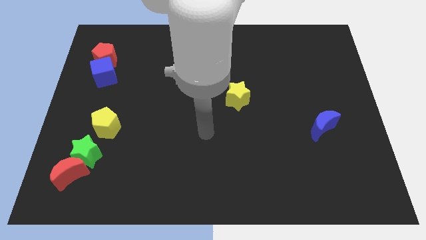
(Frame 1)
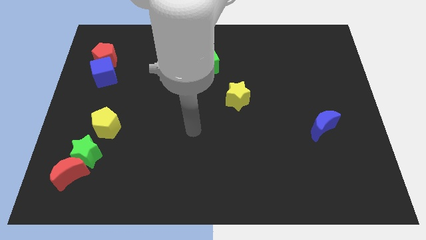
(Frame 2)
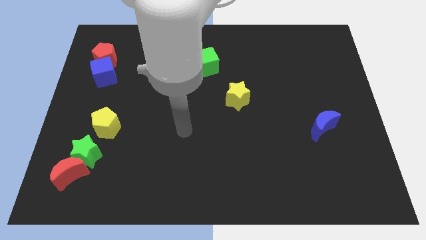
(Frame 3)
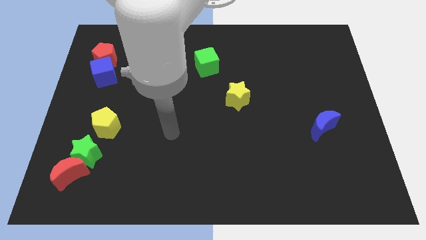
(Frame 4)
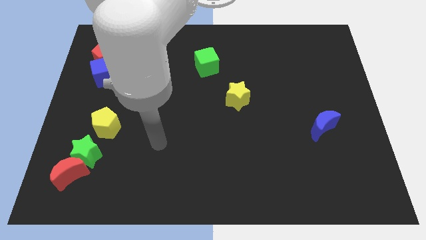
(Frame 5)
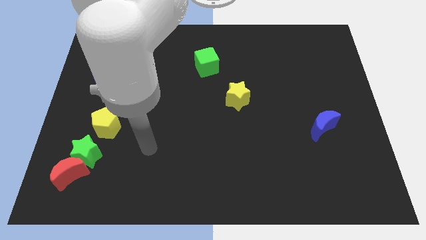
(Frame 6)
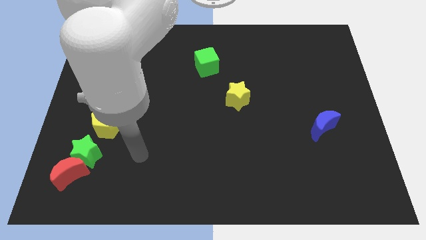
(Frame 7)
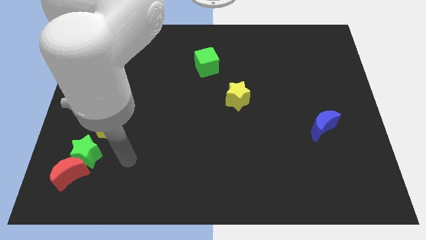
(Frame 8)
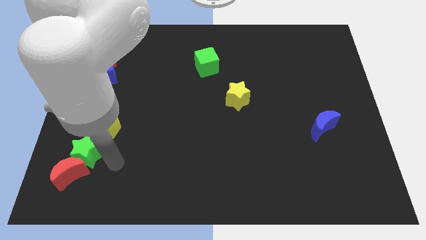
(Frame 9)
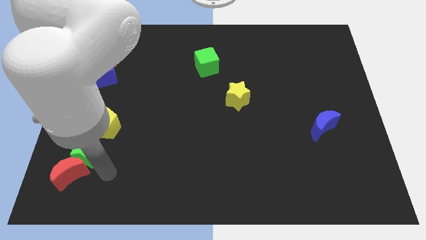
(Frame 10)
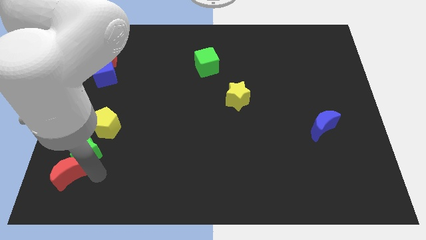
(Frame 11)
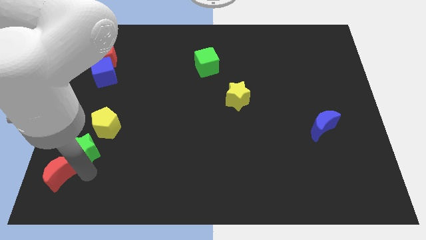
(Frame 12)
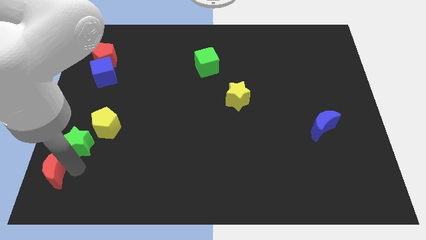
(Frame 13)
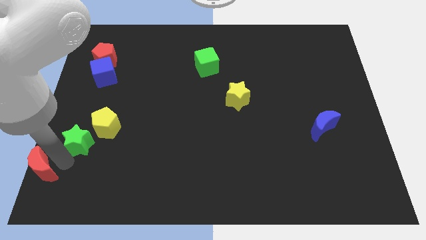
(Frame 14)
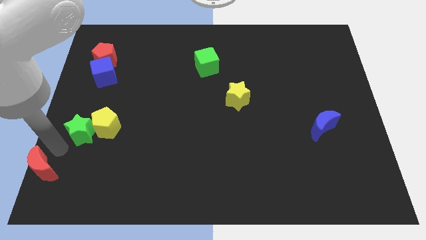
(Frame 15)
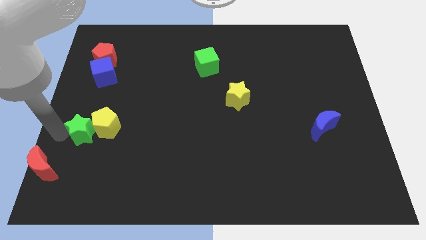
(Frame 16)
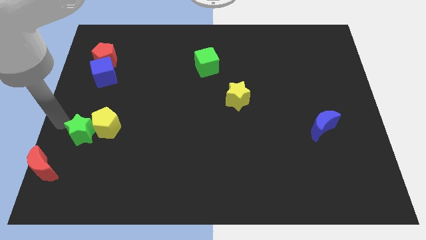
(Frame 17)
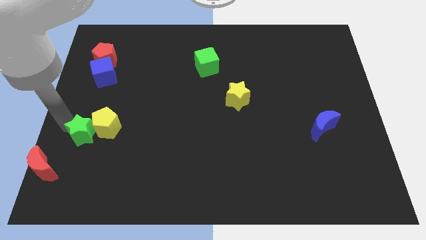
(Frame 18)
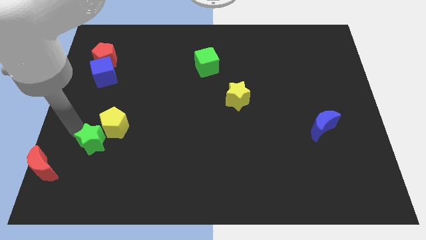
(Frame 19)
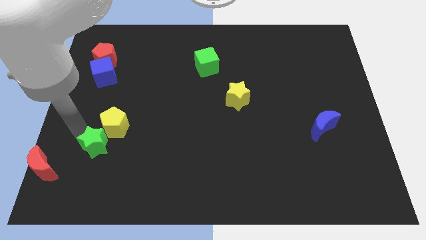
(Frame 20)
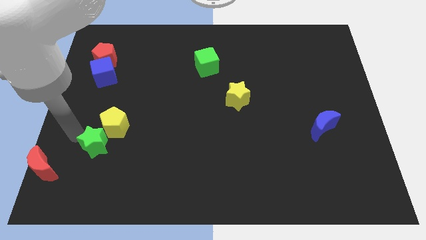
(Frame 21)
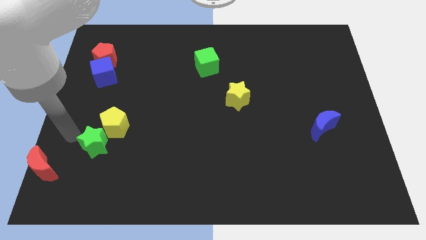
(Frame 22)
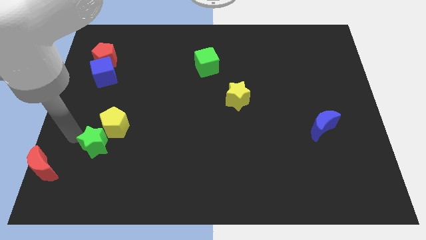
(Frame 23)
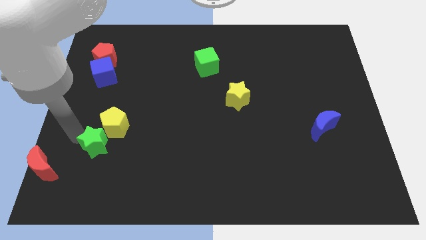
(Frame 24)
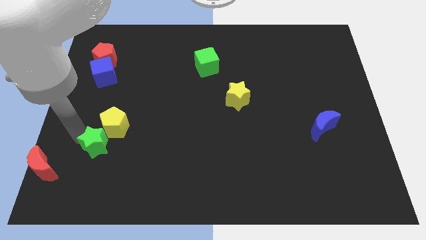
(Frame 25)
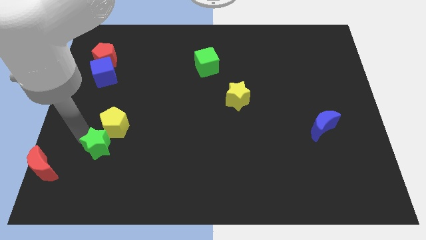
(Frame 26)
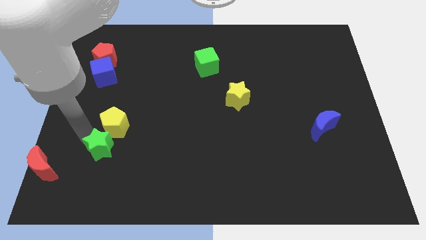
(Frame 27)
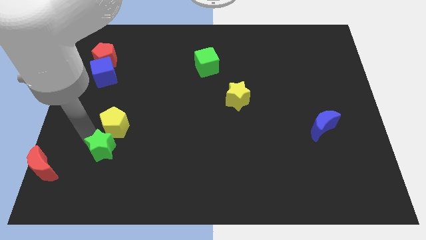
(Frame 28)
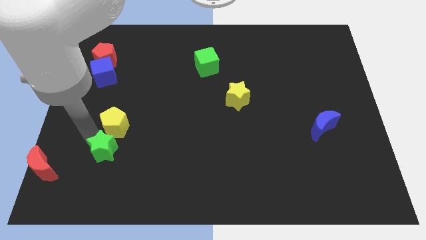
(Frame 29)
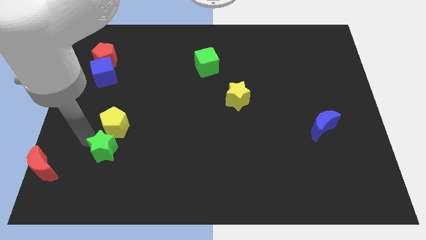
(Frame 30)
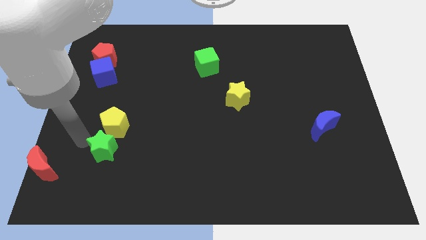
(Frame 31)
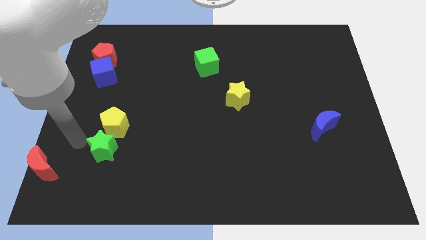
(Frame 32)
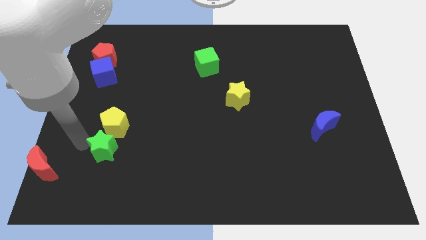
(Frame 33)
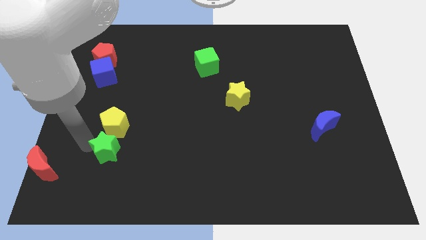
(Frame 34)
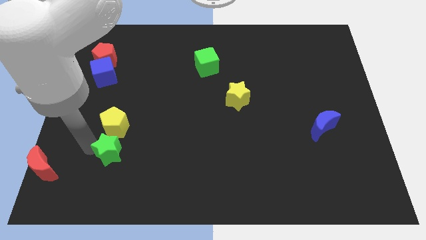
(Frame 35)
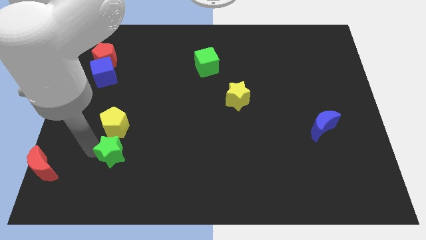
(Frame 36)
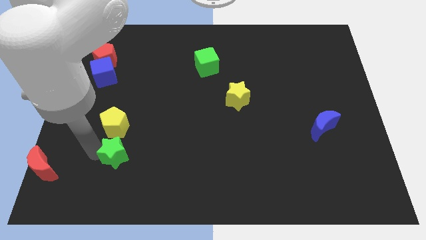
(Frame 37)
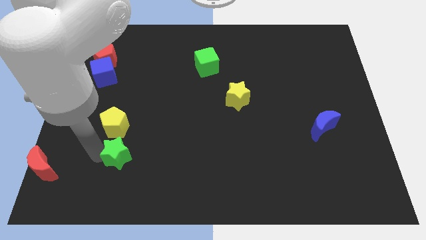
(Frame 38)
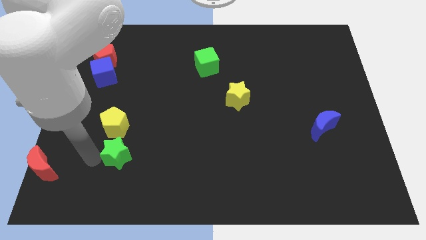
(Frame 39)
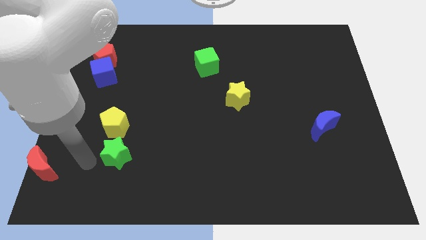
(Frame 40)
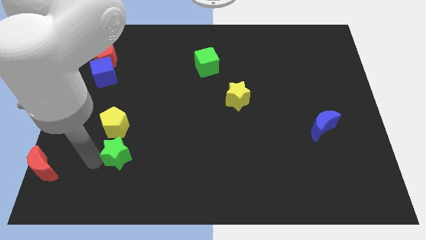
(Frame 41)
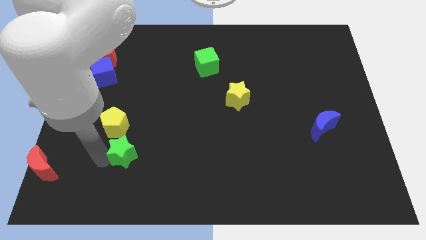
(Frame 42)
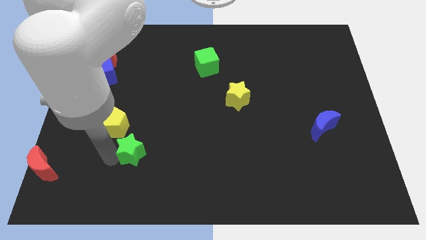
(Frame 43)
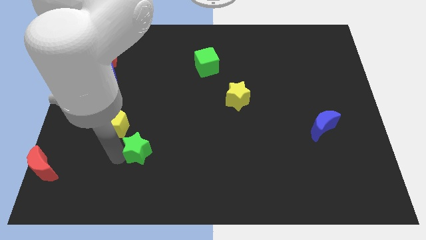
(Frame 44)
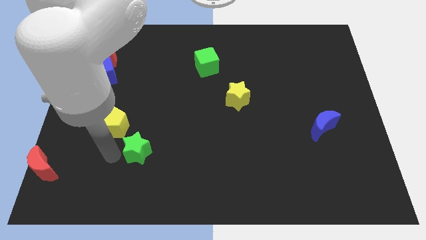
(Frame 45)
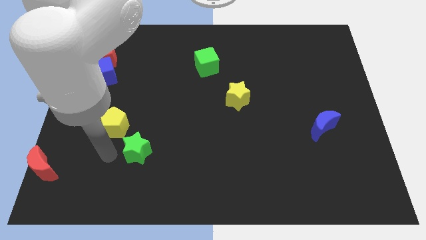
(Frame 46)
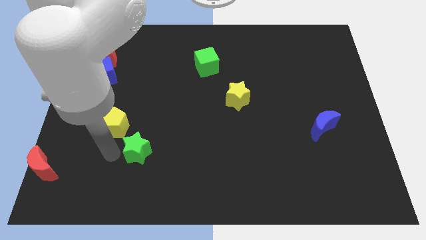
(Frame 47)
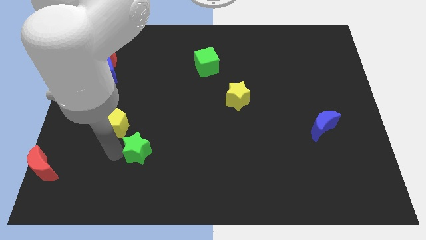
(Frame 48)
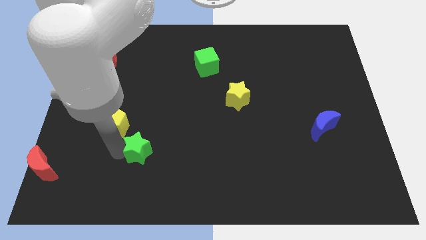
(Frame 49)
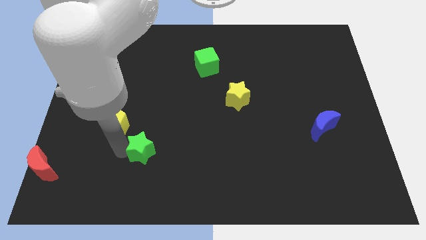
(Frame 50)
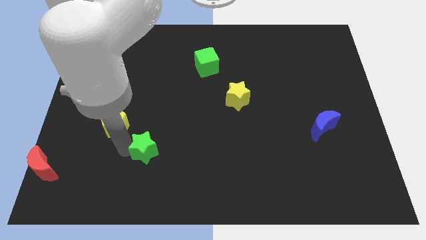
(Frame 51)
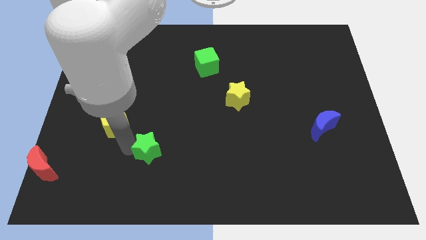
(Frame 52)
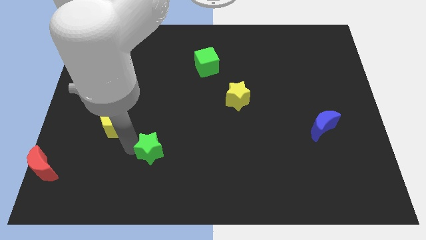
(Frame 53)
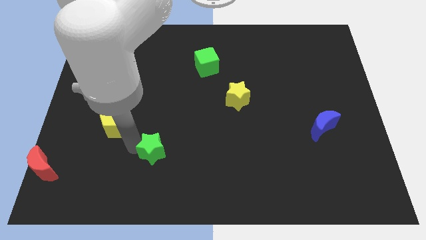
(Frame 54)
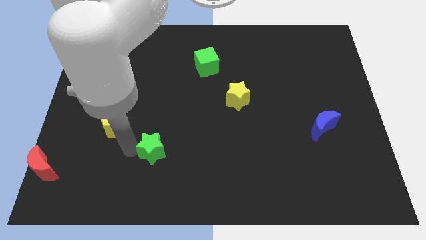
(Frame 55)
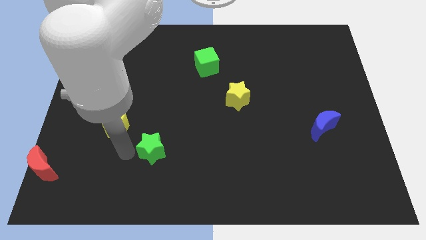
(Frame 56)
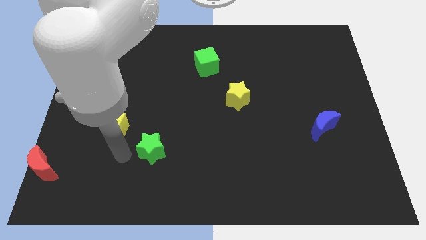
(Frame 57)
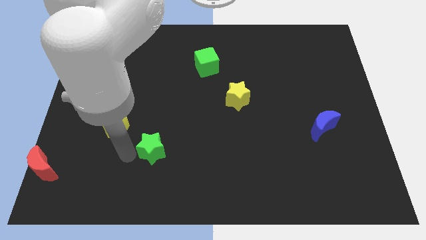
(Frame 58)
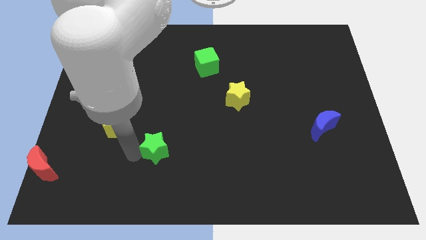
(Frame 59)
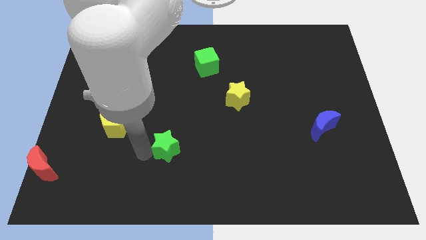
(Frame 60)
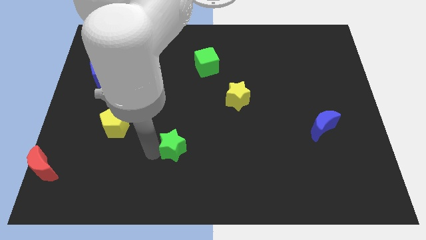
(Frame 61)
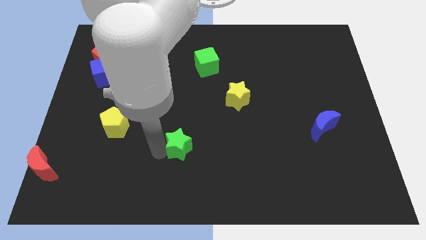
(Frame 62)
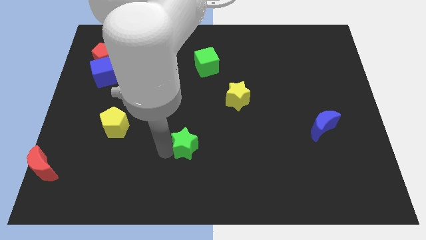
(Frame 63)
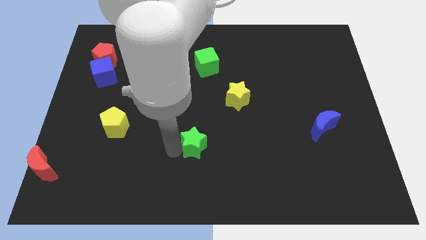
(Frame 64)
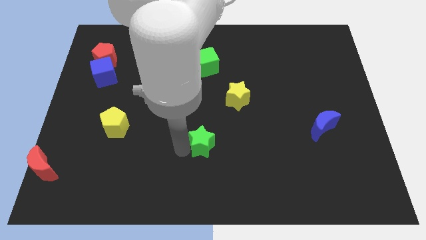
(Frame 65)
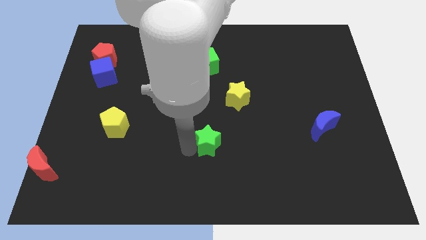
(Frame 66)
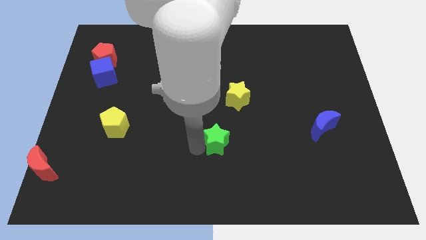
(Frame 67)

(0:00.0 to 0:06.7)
push the green star to the bottom of the yellow star

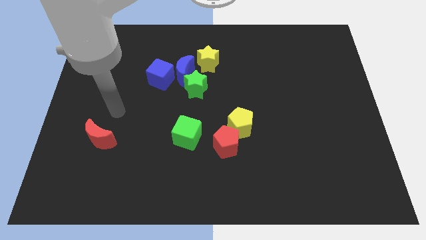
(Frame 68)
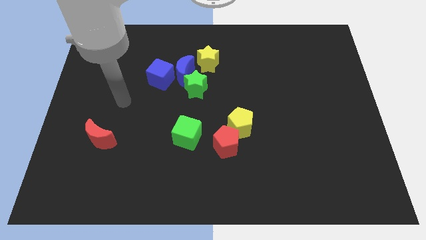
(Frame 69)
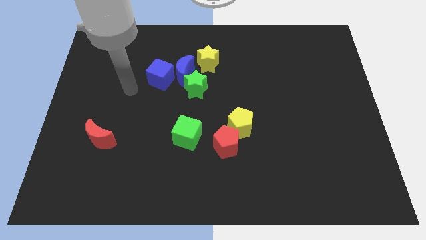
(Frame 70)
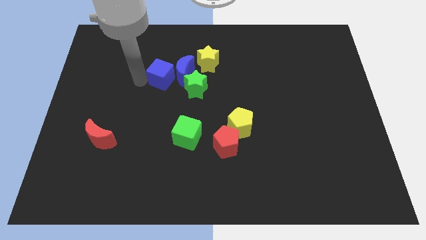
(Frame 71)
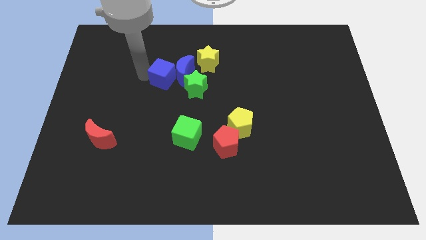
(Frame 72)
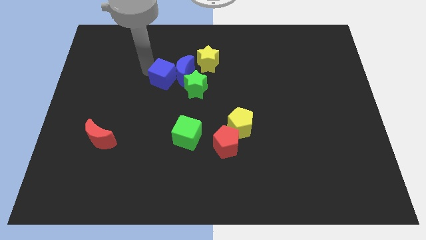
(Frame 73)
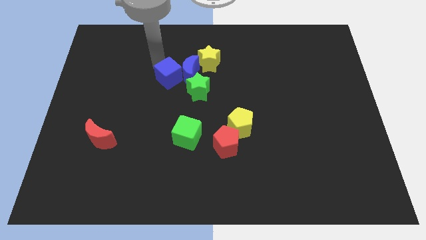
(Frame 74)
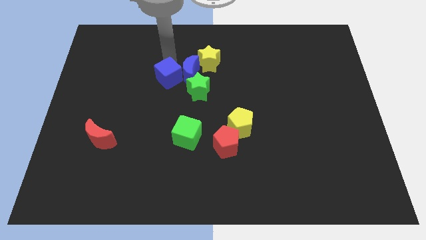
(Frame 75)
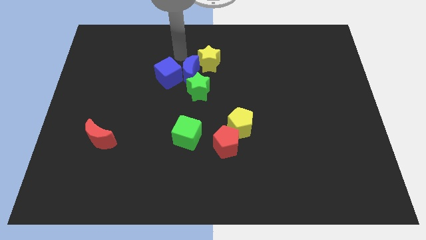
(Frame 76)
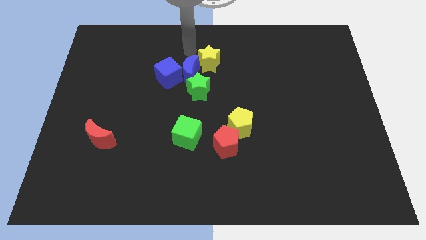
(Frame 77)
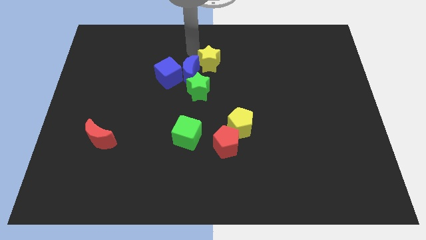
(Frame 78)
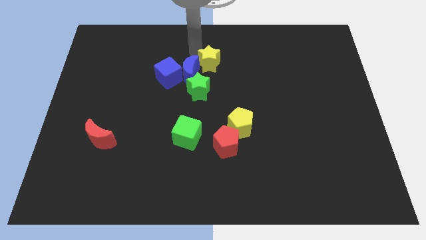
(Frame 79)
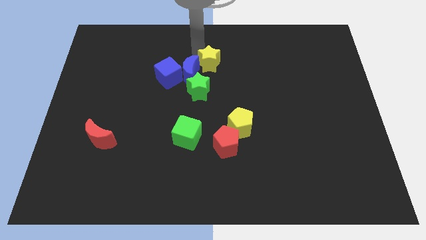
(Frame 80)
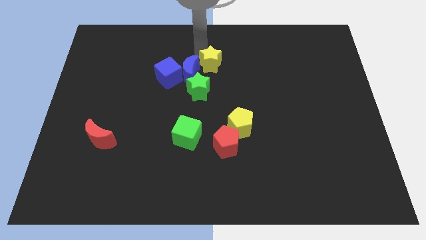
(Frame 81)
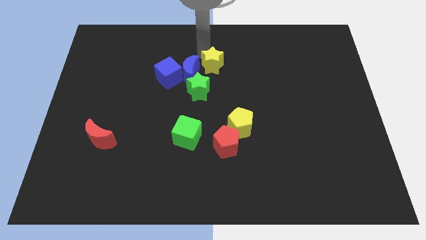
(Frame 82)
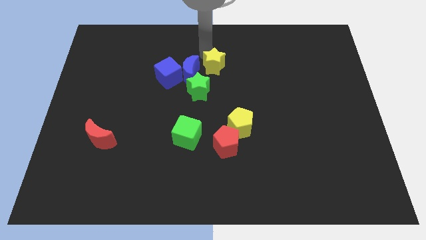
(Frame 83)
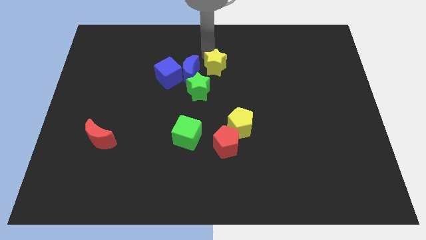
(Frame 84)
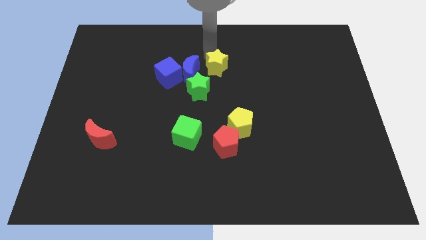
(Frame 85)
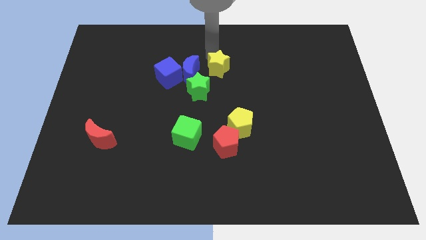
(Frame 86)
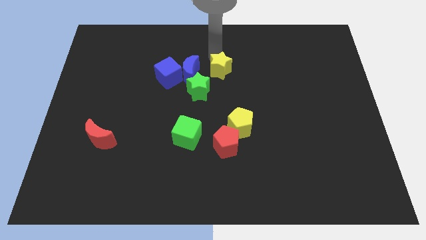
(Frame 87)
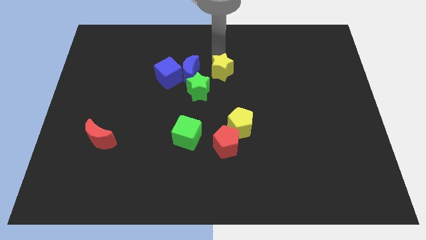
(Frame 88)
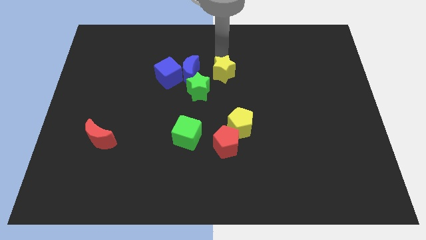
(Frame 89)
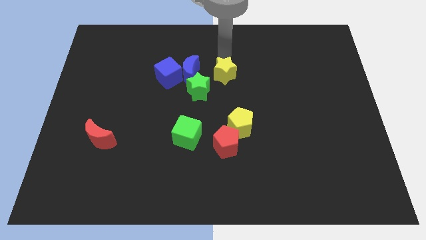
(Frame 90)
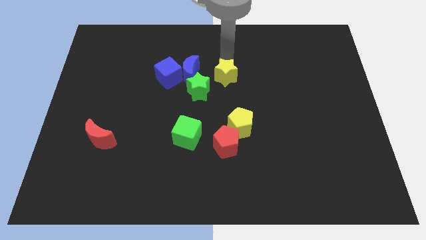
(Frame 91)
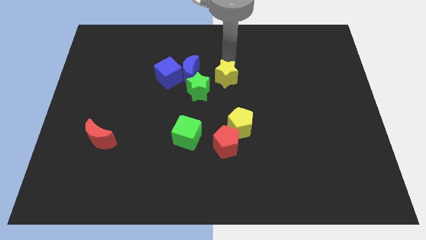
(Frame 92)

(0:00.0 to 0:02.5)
slide the yellow star to the right side of the green star
